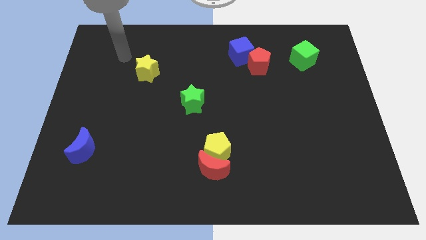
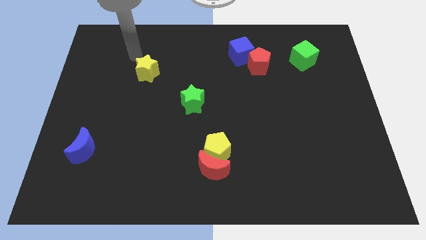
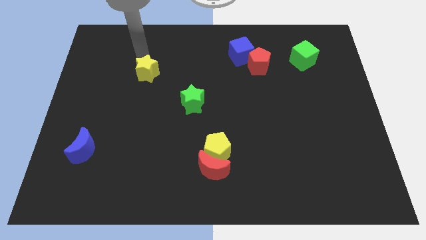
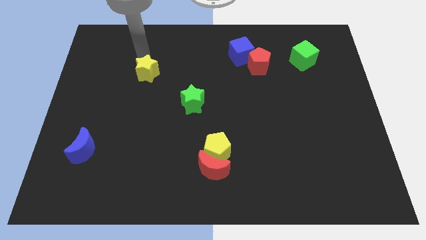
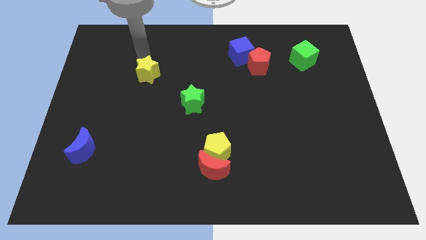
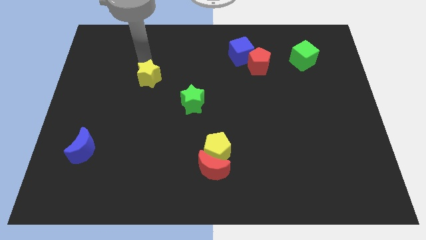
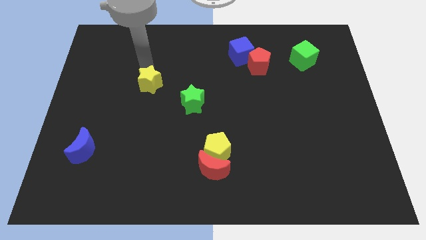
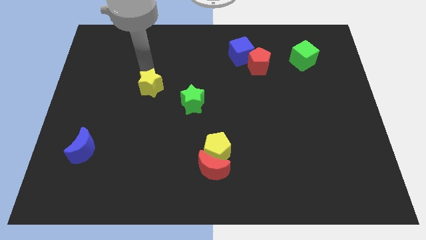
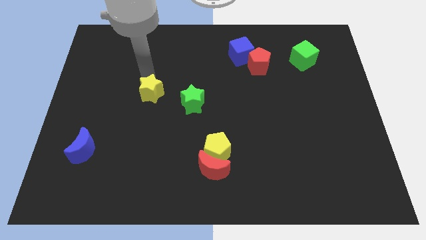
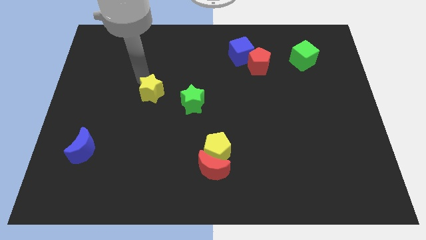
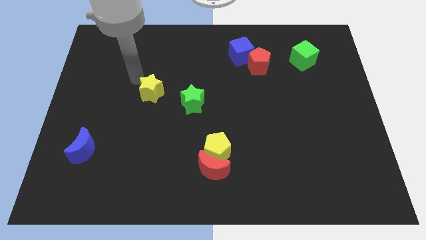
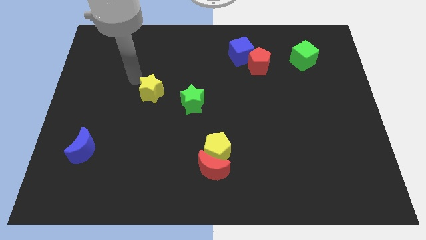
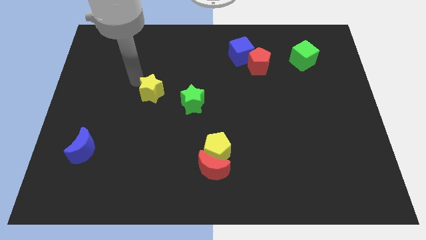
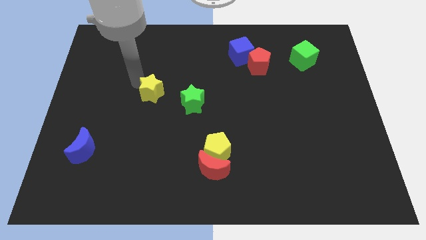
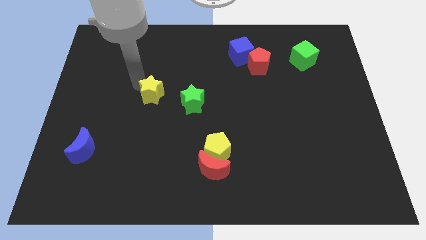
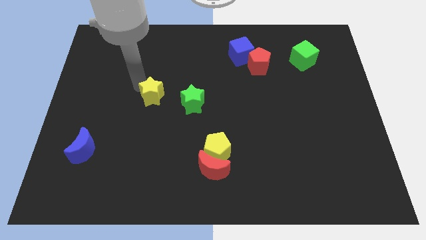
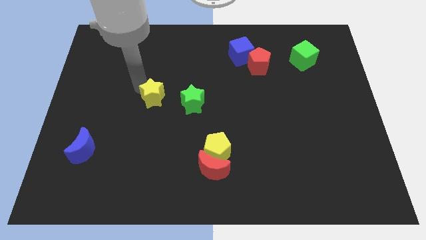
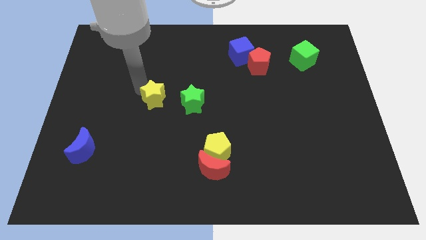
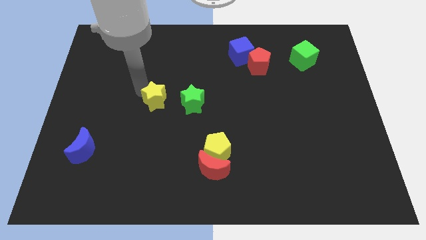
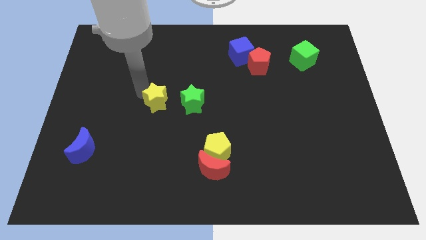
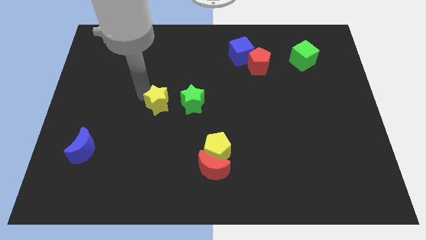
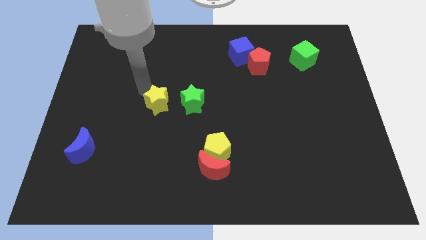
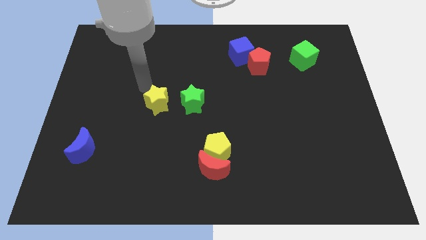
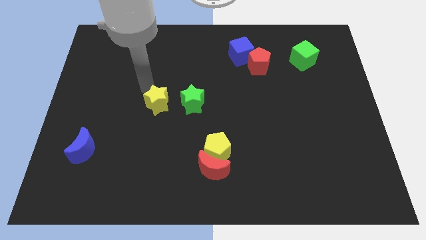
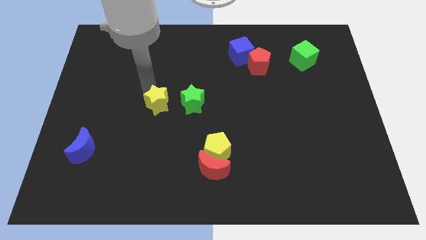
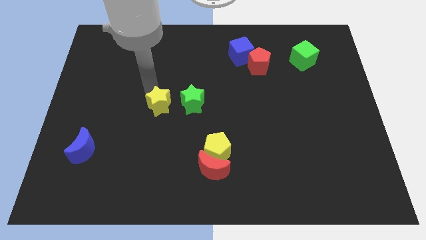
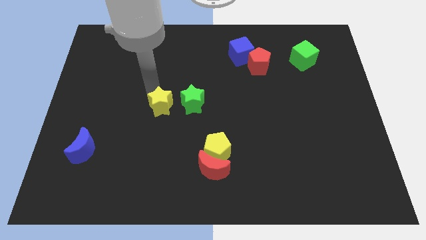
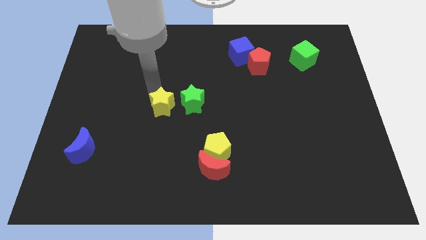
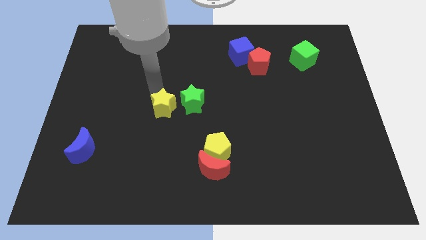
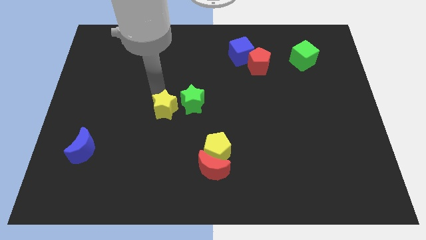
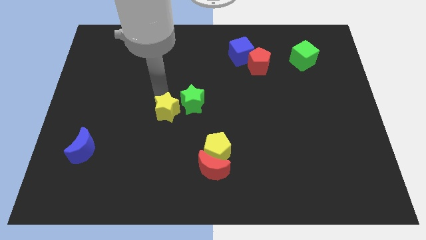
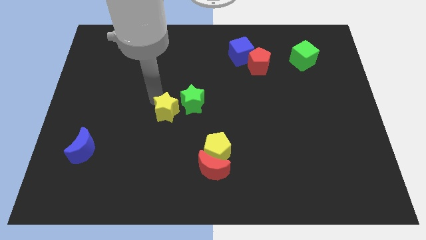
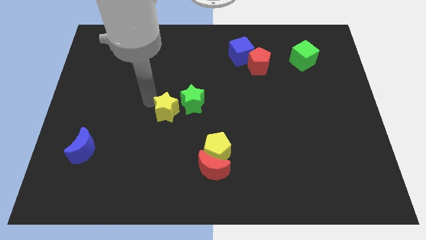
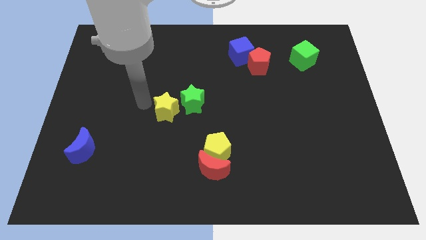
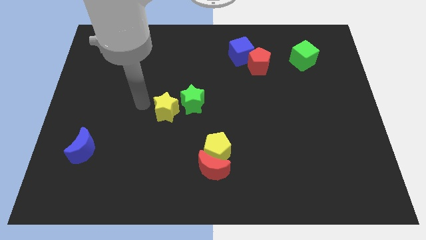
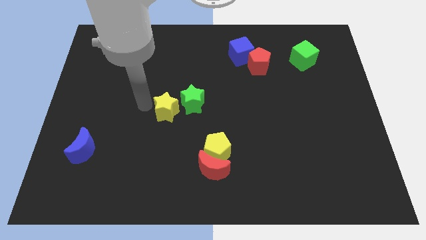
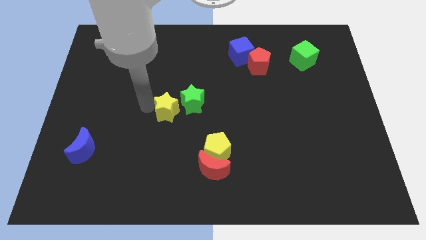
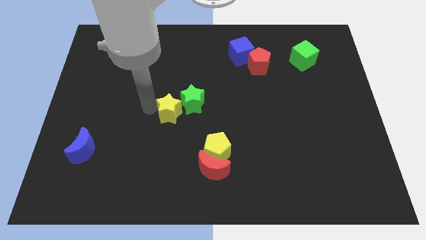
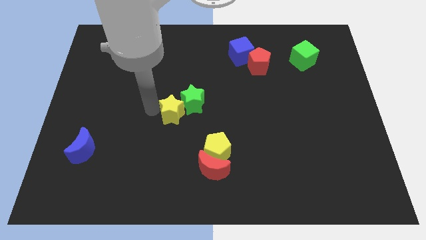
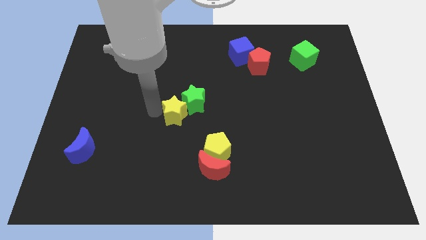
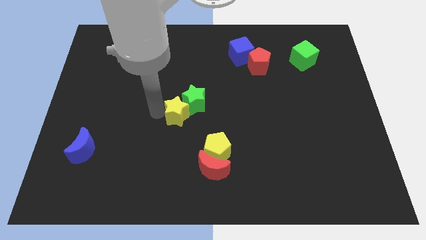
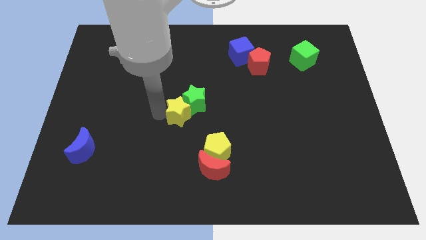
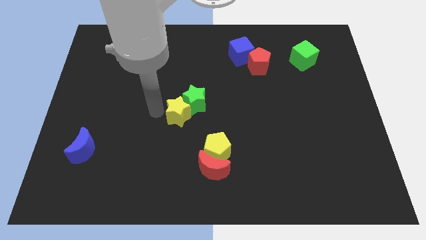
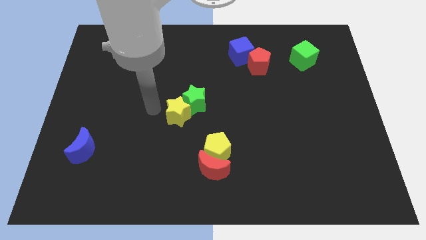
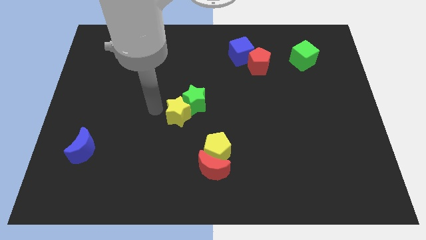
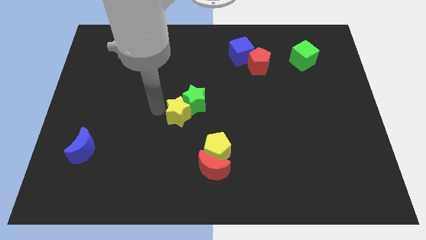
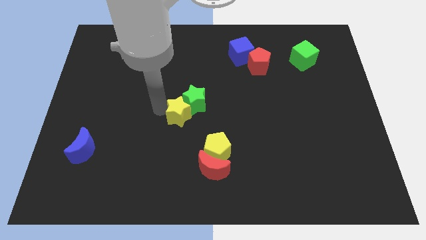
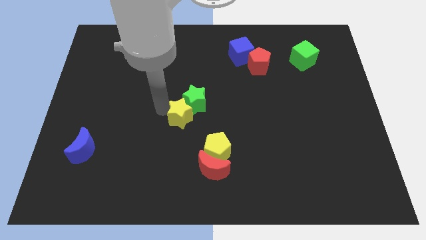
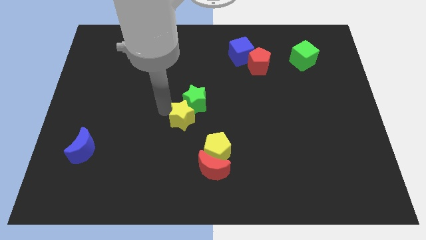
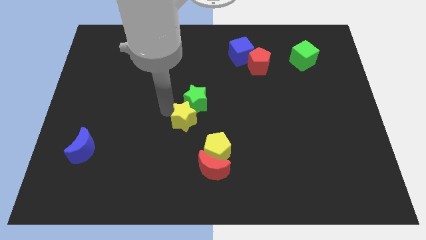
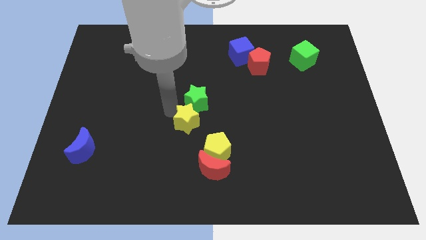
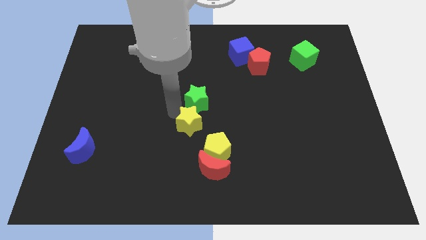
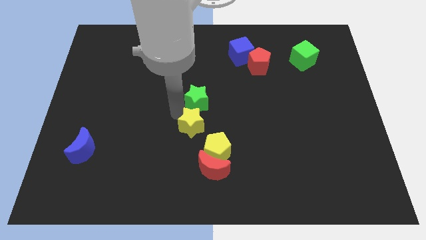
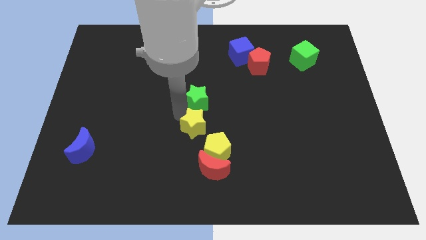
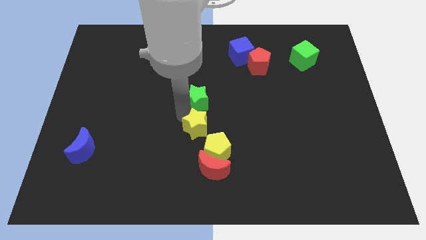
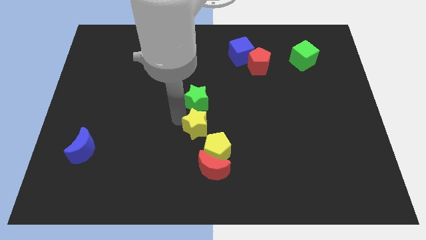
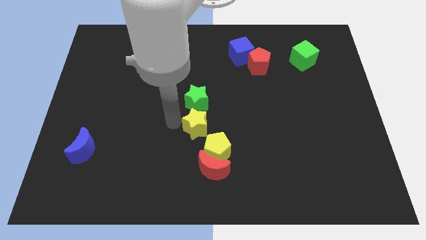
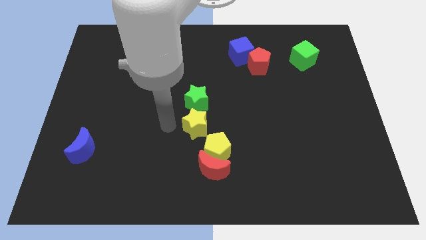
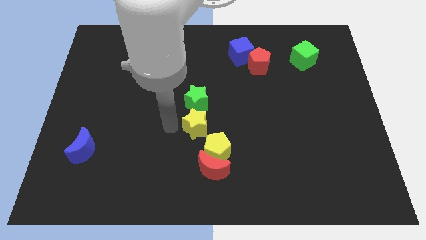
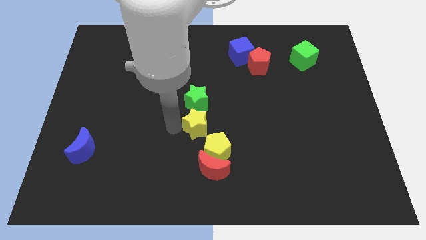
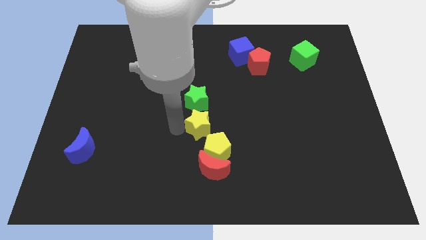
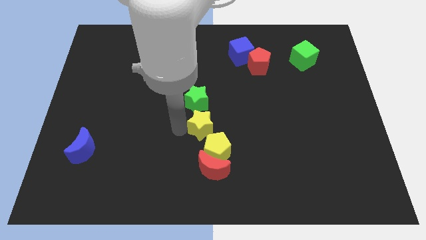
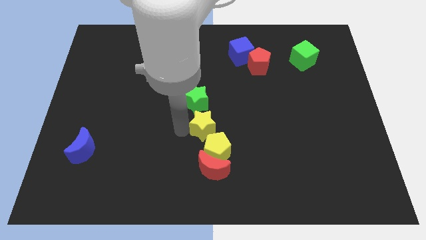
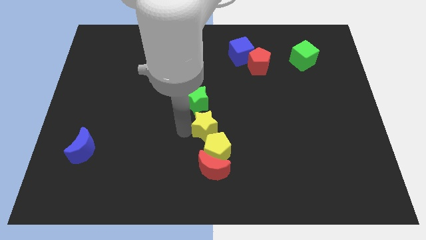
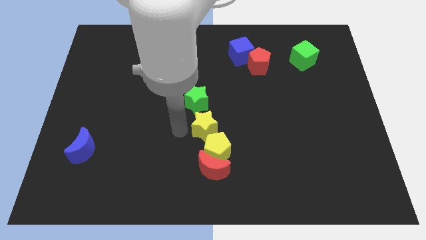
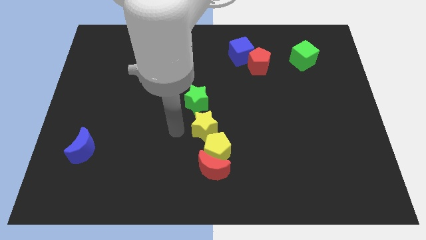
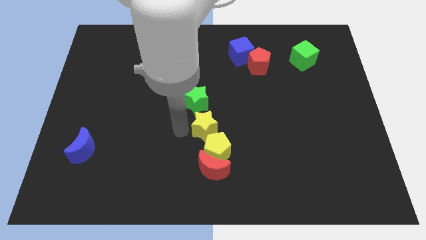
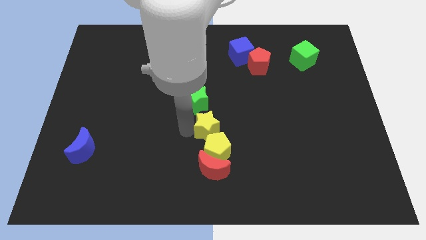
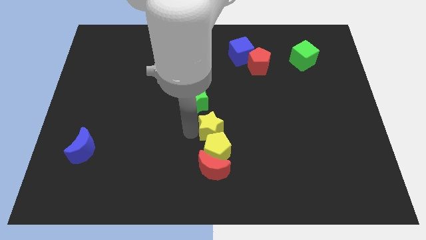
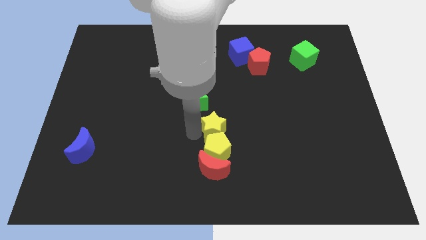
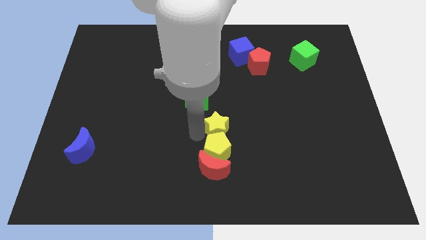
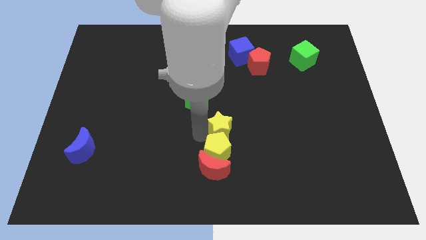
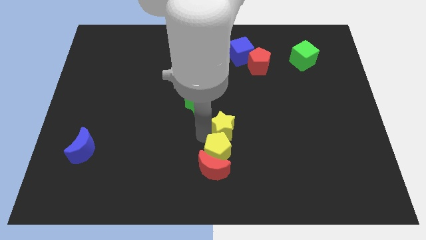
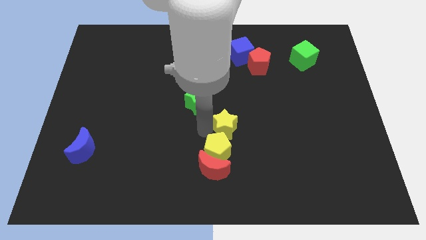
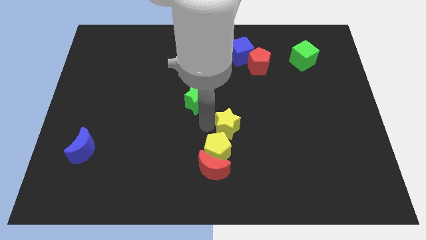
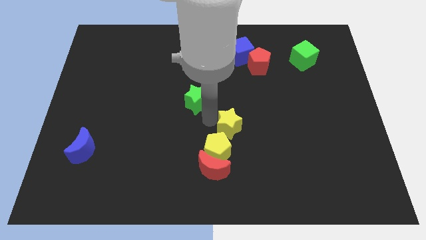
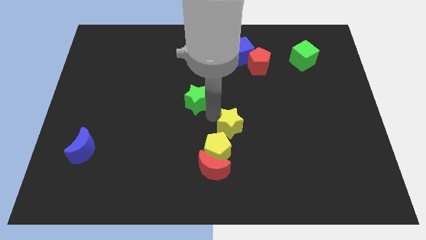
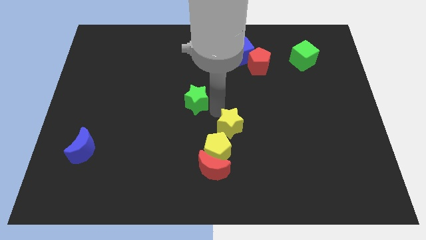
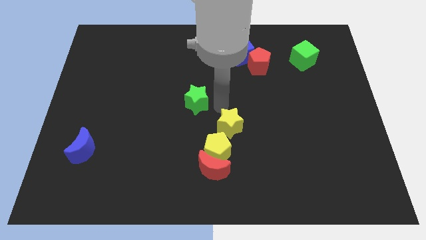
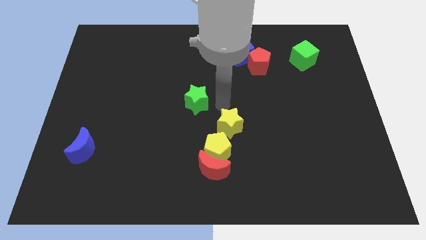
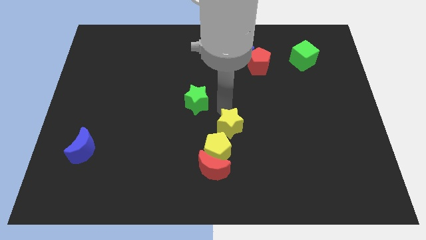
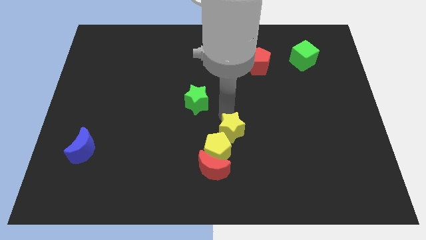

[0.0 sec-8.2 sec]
slide the yellow star diagonally up and to the right of the red moon
